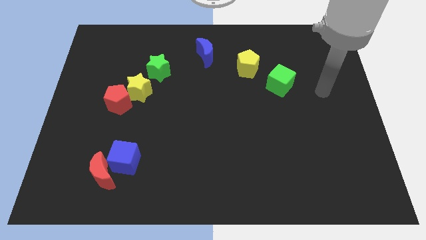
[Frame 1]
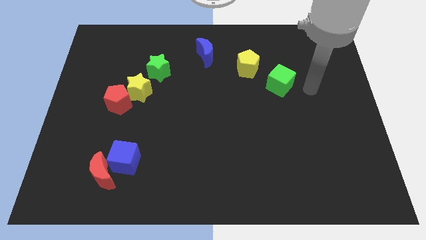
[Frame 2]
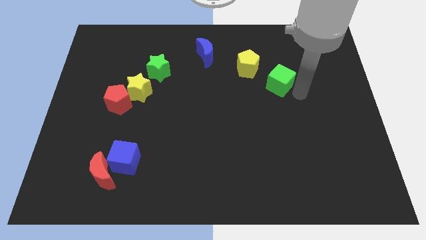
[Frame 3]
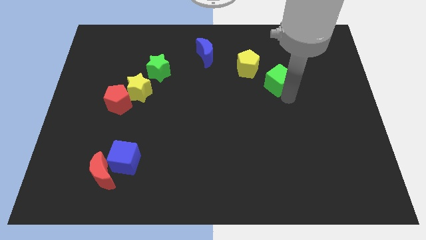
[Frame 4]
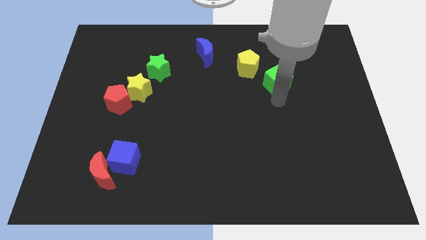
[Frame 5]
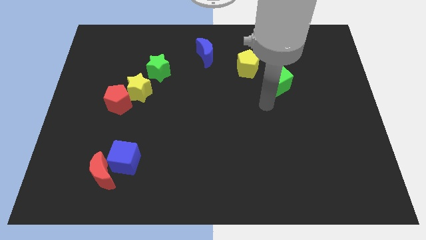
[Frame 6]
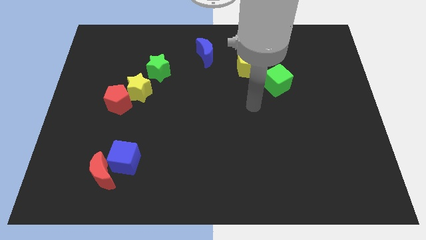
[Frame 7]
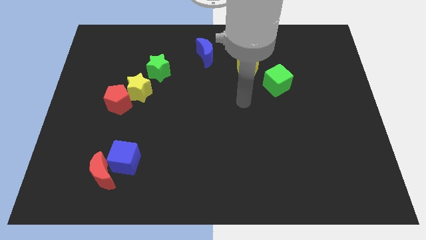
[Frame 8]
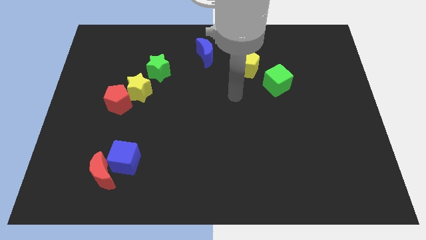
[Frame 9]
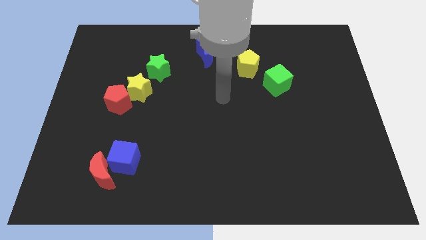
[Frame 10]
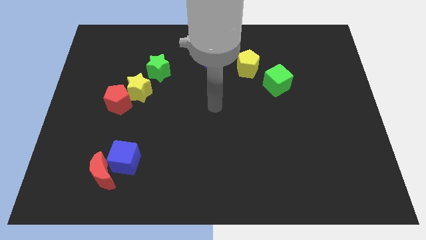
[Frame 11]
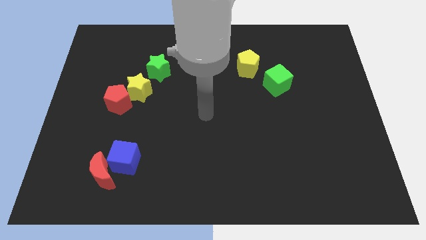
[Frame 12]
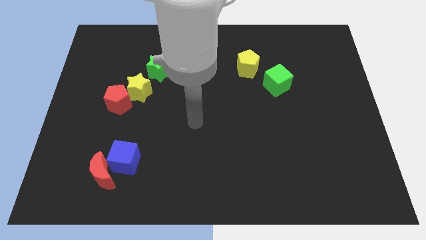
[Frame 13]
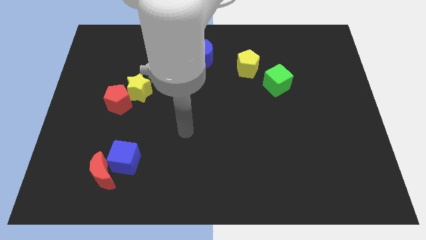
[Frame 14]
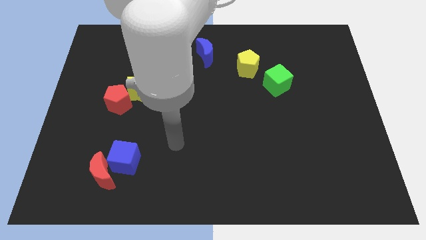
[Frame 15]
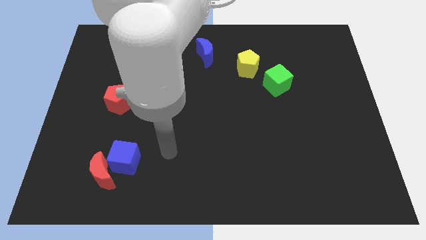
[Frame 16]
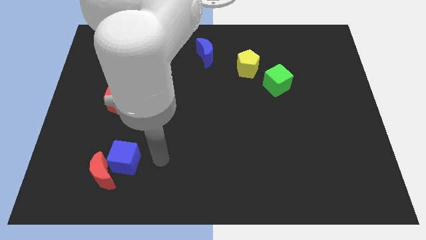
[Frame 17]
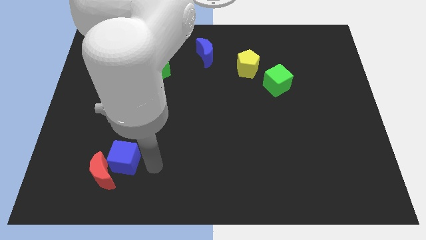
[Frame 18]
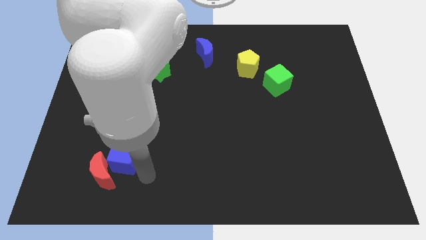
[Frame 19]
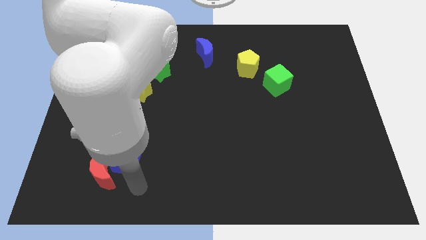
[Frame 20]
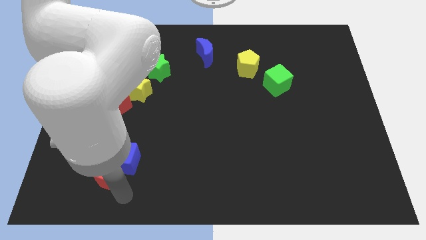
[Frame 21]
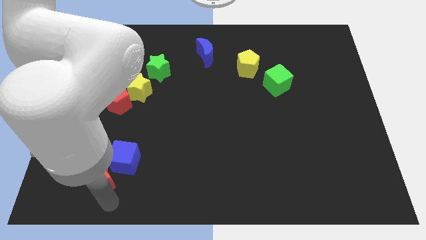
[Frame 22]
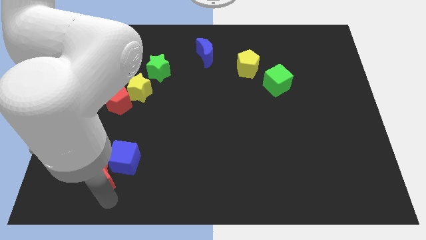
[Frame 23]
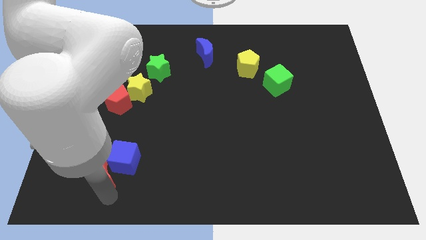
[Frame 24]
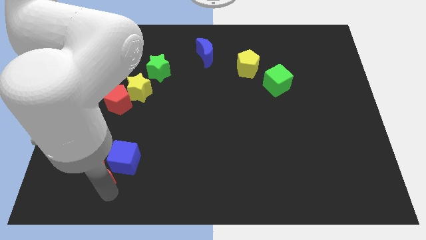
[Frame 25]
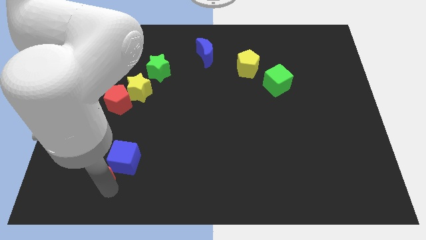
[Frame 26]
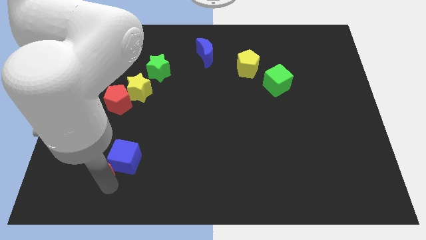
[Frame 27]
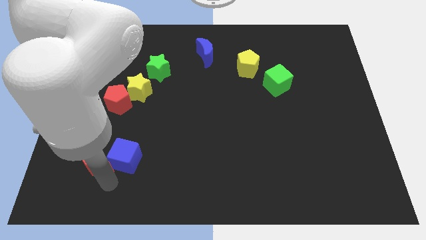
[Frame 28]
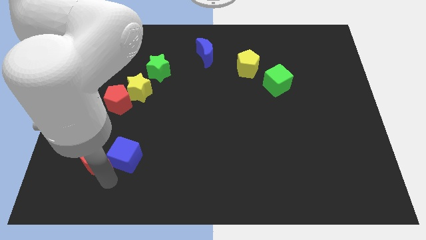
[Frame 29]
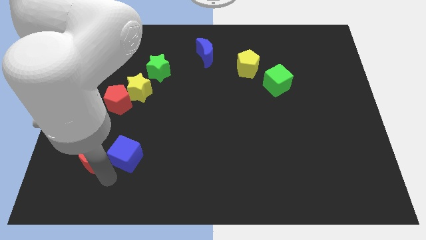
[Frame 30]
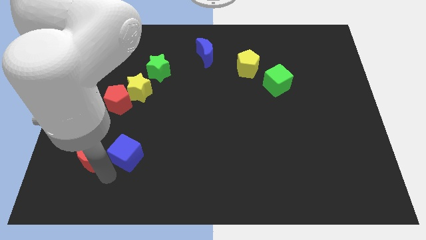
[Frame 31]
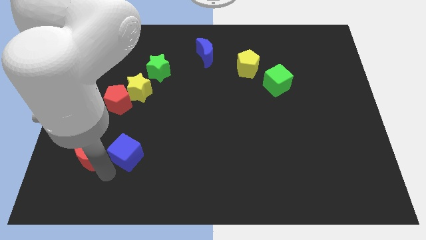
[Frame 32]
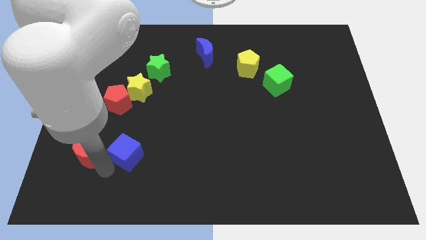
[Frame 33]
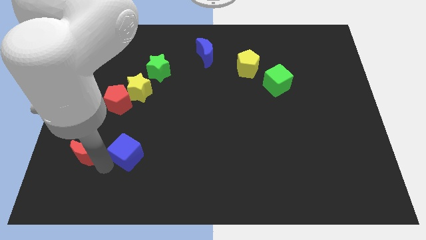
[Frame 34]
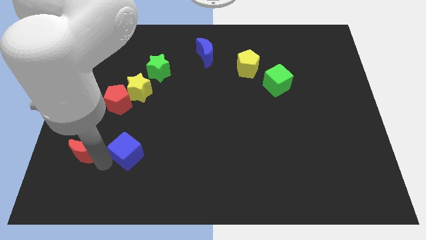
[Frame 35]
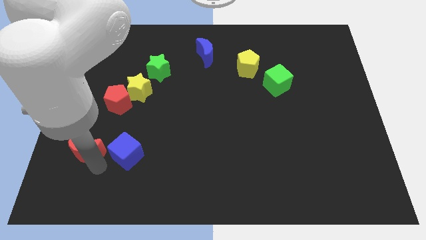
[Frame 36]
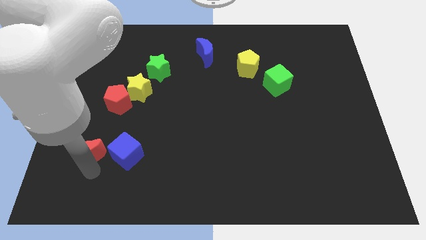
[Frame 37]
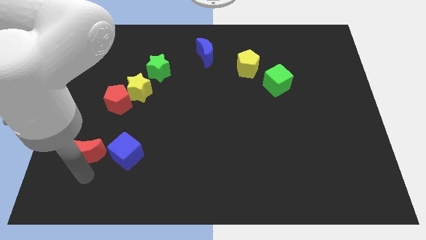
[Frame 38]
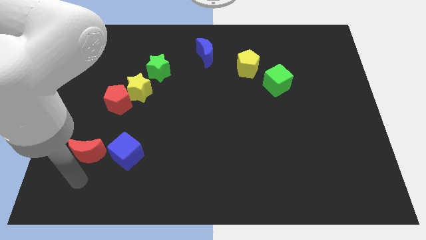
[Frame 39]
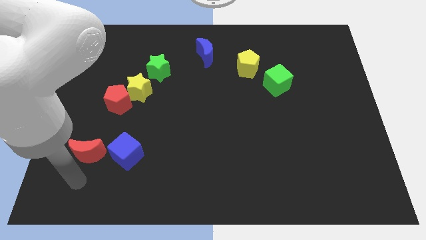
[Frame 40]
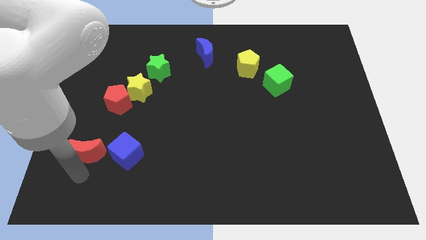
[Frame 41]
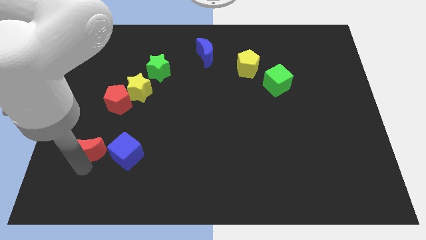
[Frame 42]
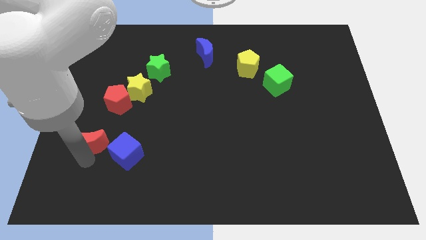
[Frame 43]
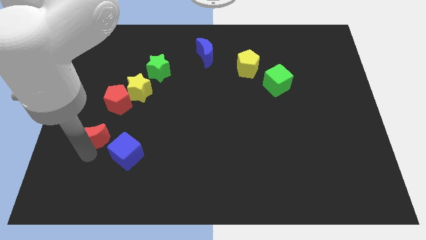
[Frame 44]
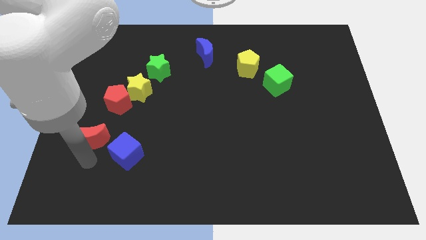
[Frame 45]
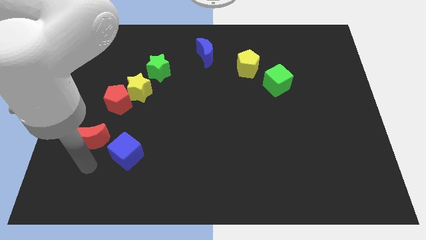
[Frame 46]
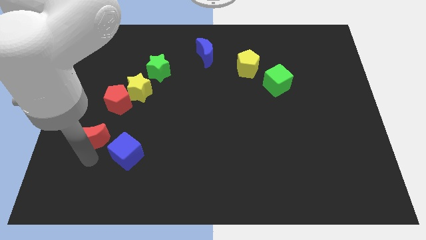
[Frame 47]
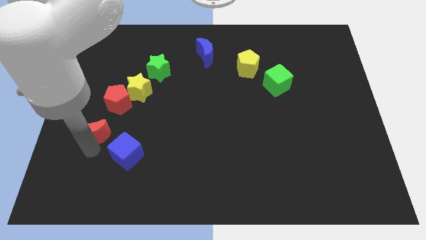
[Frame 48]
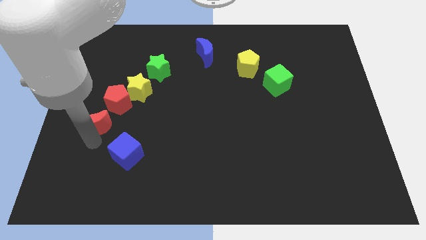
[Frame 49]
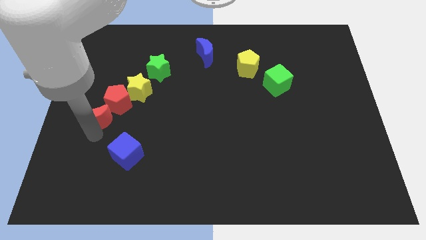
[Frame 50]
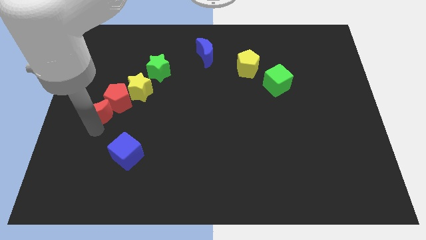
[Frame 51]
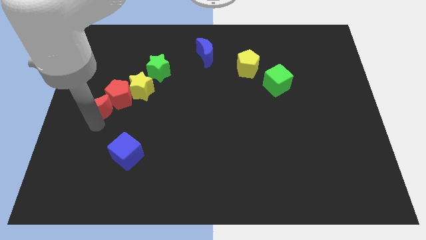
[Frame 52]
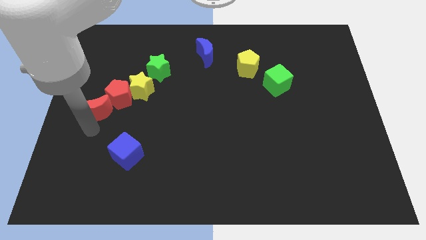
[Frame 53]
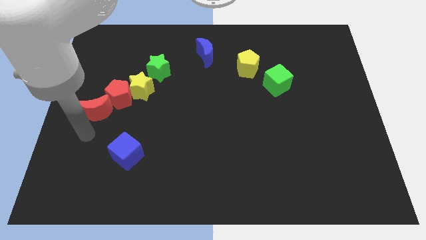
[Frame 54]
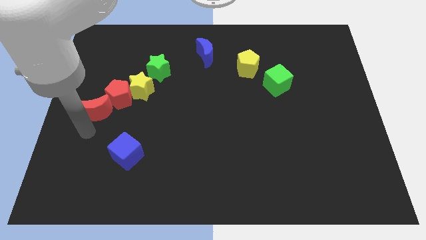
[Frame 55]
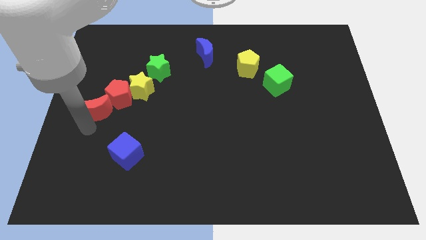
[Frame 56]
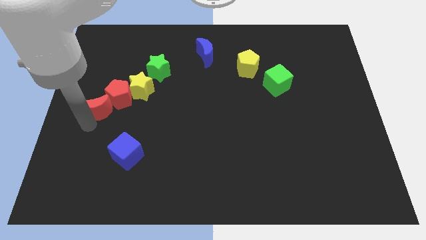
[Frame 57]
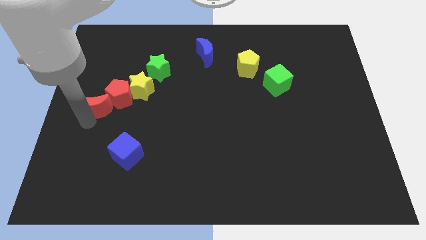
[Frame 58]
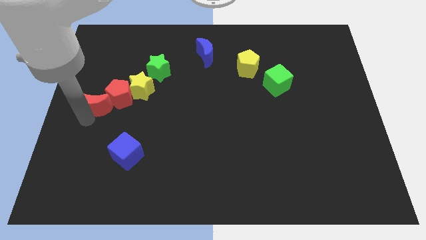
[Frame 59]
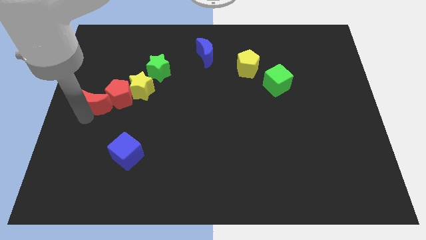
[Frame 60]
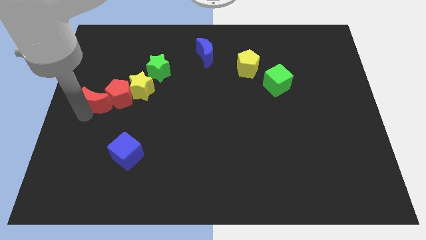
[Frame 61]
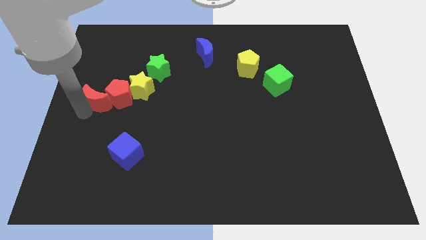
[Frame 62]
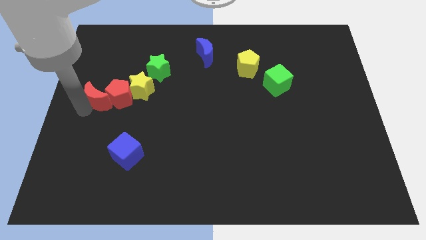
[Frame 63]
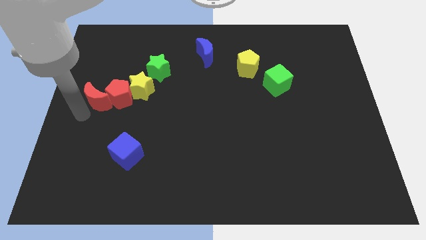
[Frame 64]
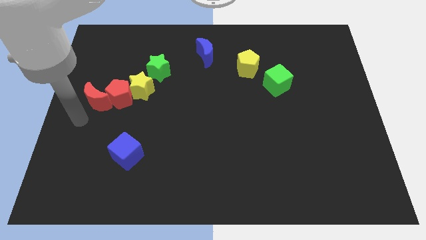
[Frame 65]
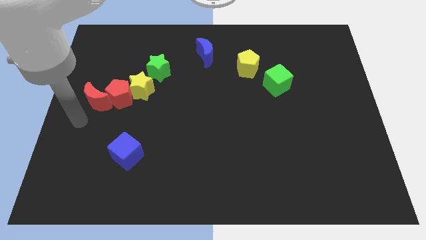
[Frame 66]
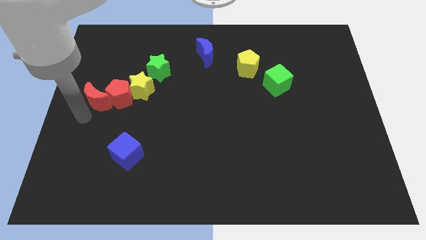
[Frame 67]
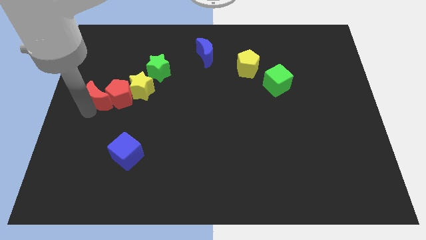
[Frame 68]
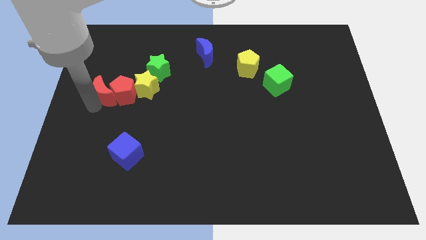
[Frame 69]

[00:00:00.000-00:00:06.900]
slide the red moon upwards

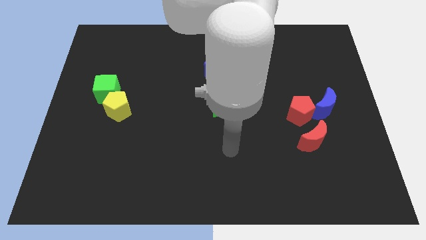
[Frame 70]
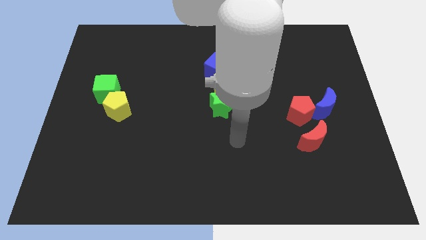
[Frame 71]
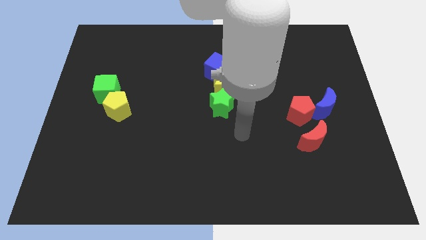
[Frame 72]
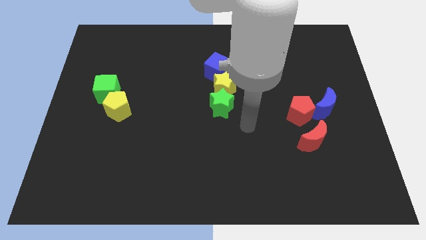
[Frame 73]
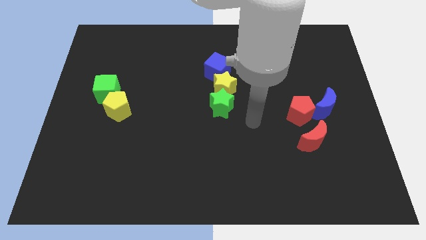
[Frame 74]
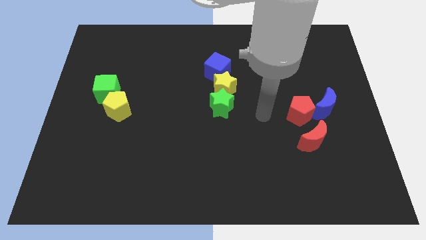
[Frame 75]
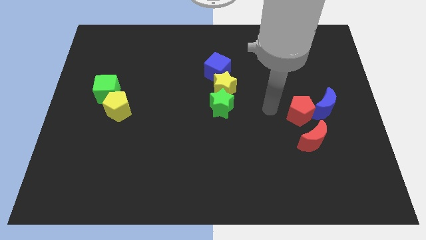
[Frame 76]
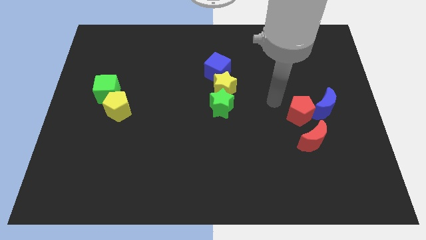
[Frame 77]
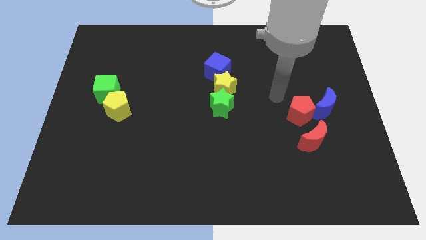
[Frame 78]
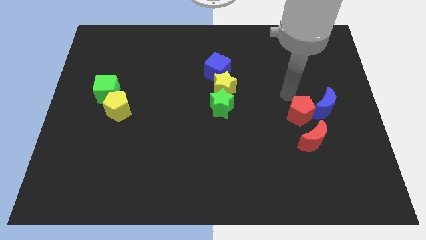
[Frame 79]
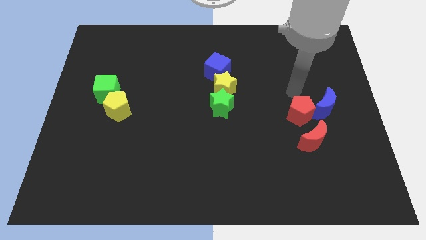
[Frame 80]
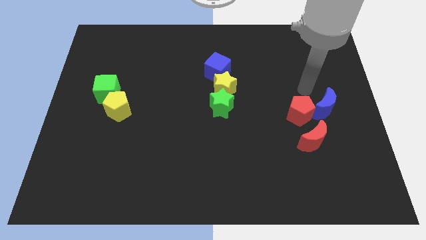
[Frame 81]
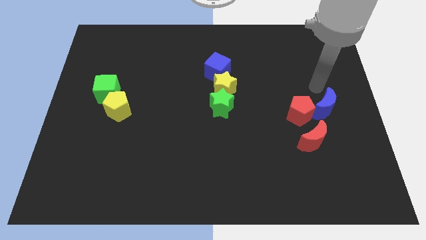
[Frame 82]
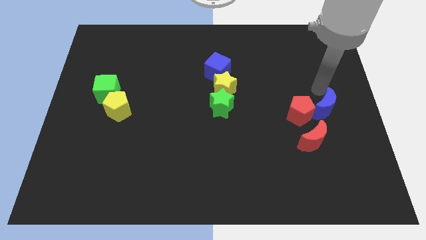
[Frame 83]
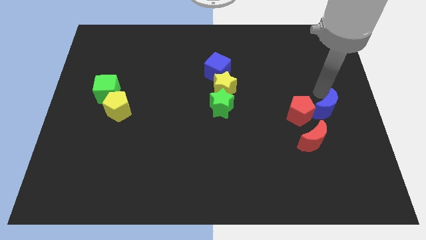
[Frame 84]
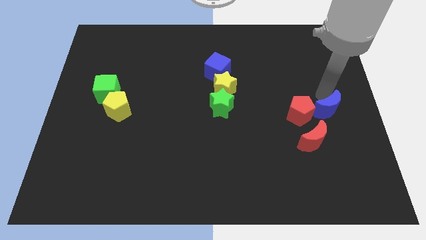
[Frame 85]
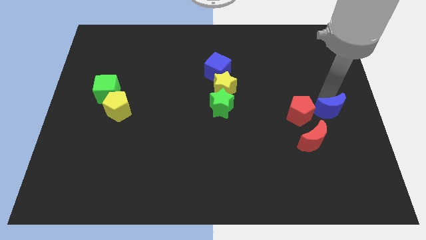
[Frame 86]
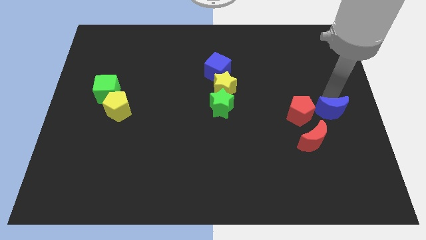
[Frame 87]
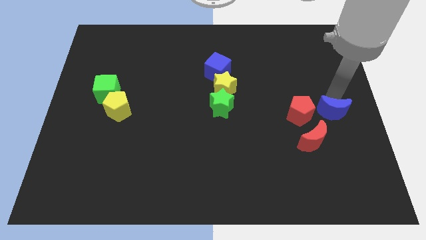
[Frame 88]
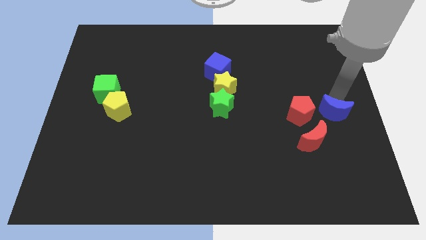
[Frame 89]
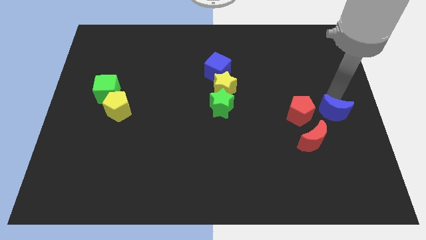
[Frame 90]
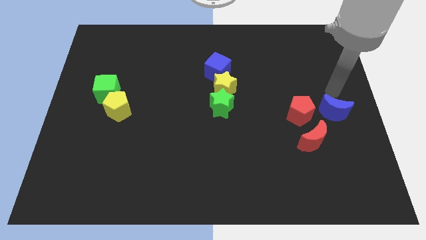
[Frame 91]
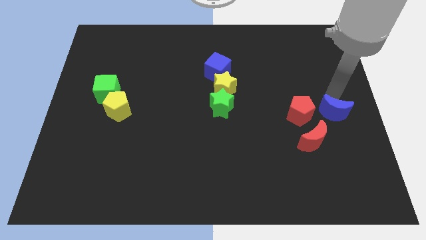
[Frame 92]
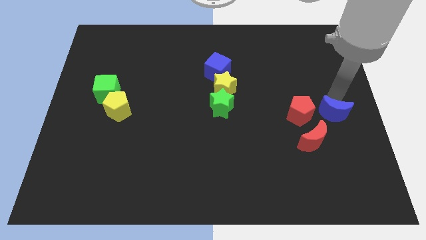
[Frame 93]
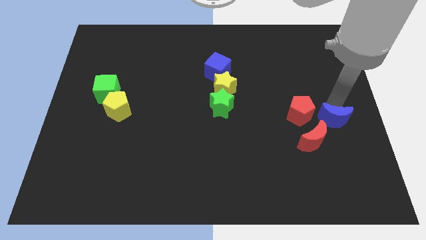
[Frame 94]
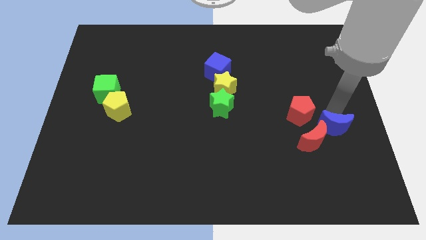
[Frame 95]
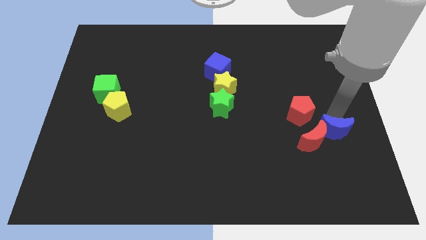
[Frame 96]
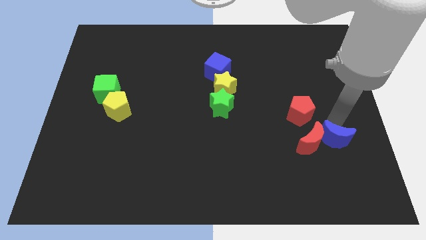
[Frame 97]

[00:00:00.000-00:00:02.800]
slightly push the blue moon down
